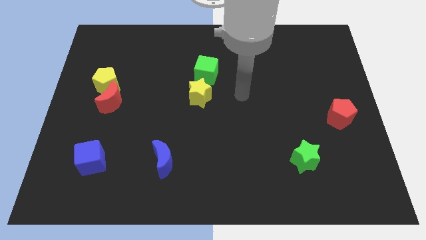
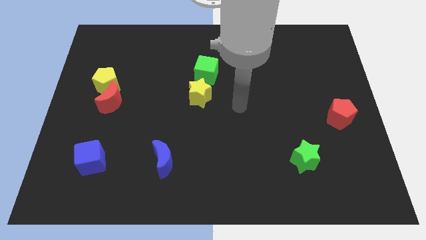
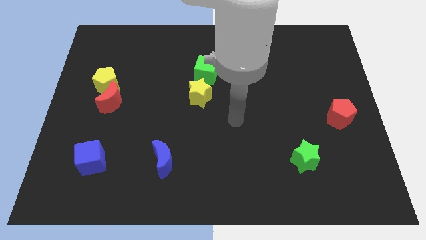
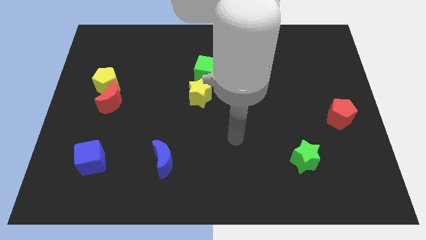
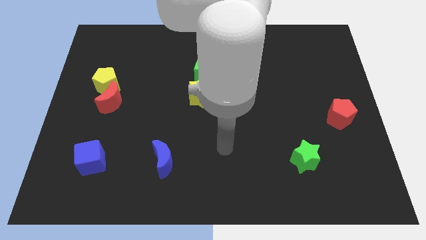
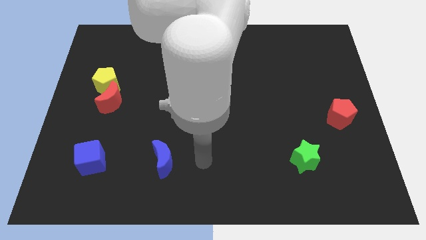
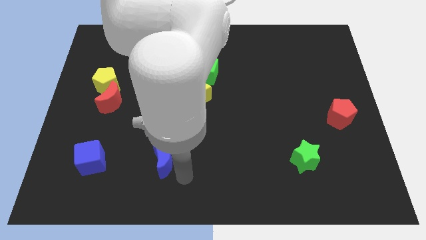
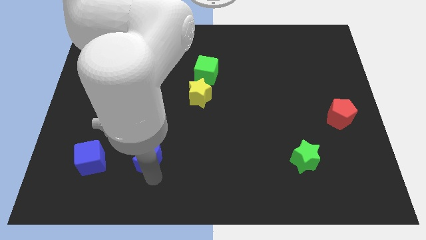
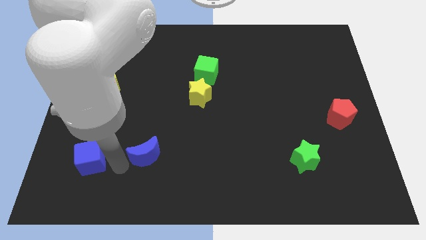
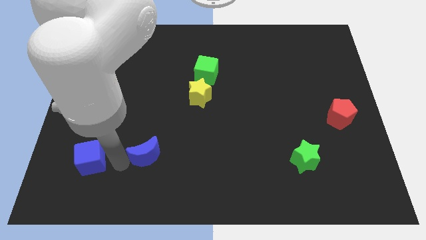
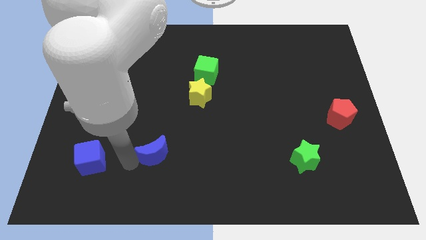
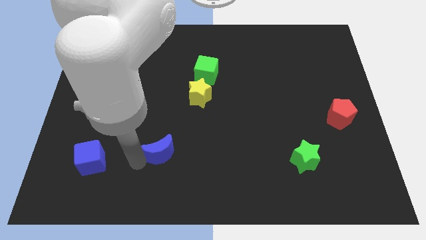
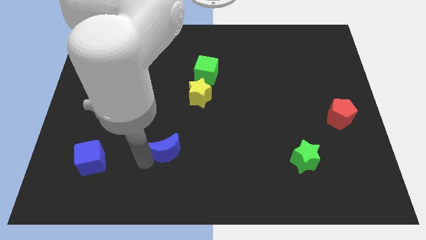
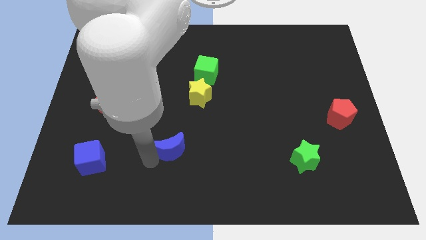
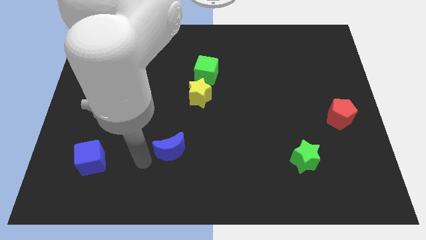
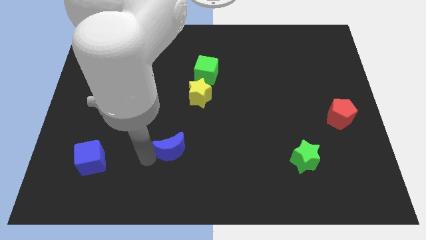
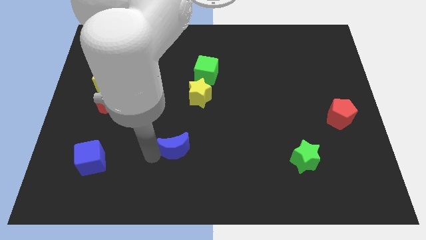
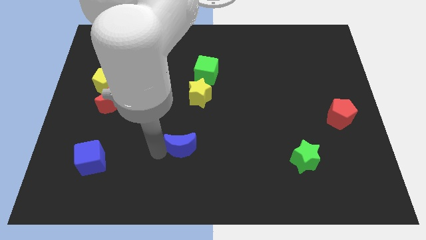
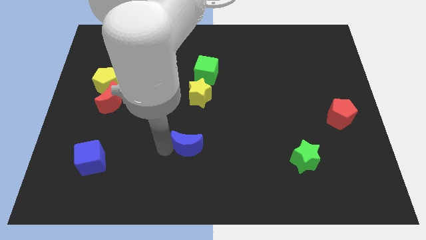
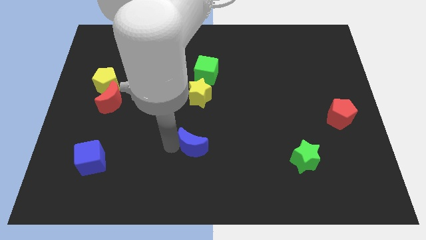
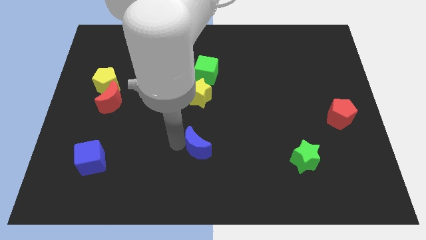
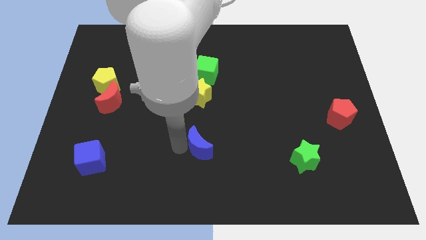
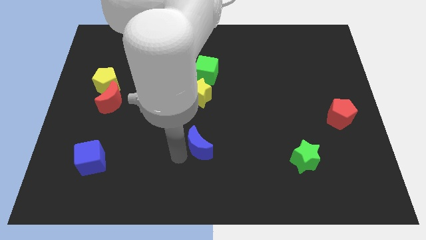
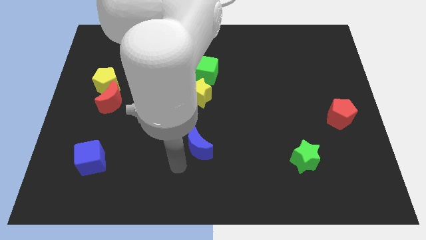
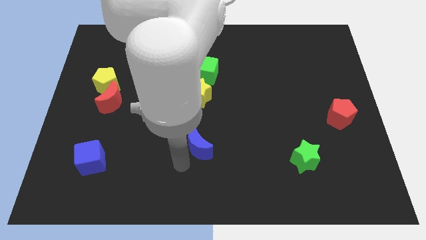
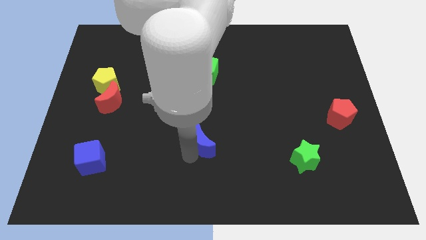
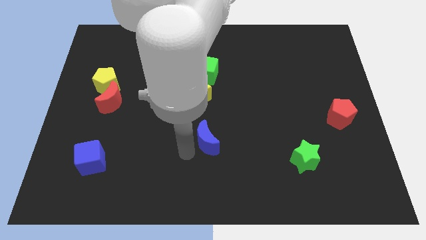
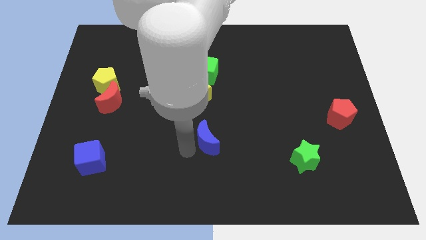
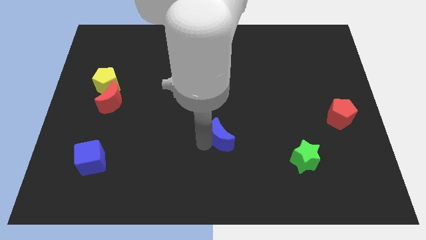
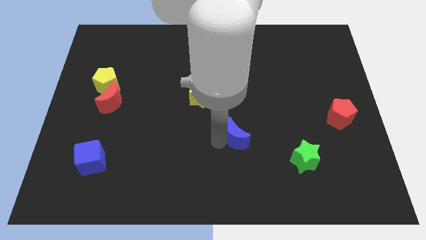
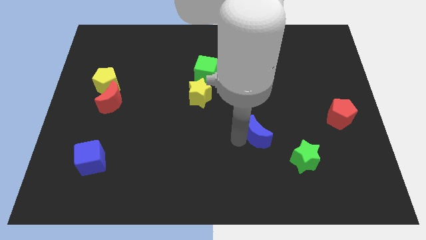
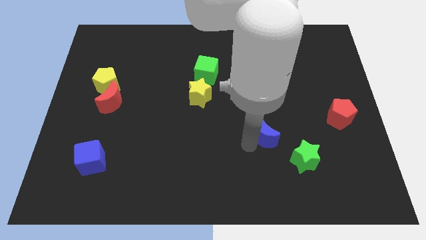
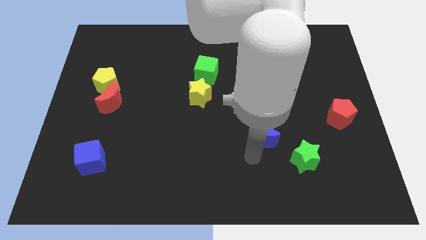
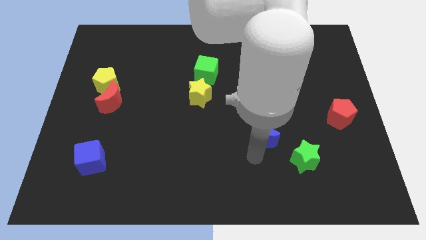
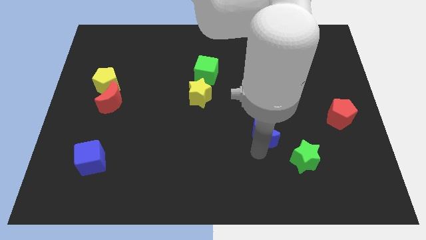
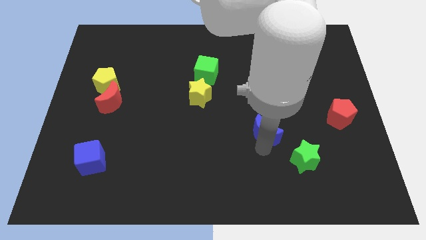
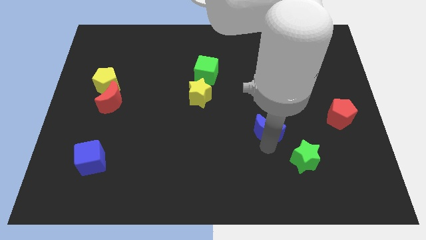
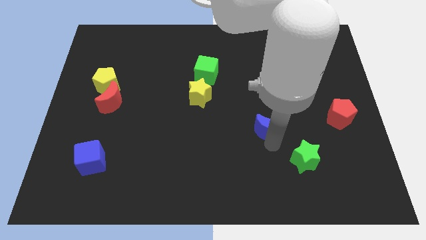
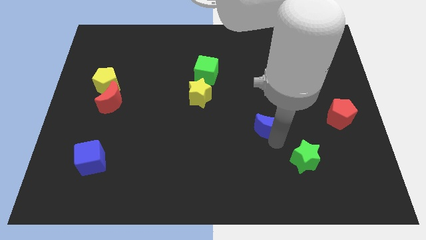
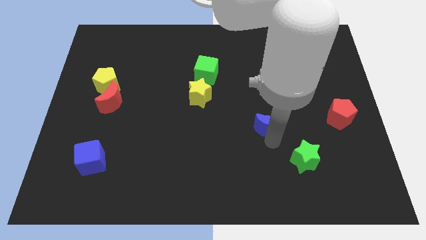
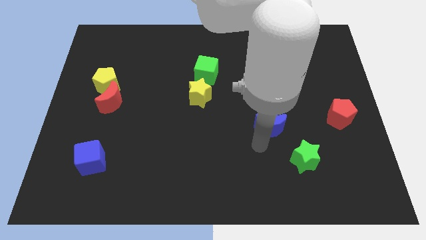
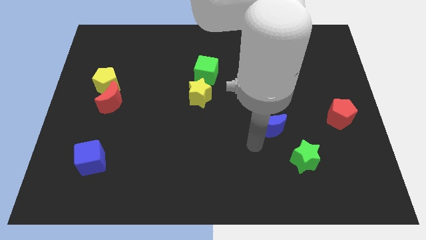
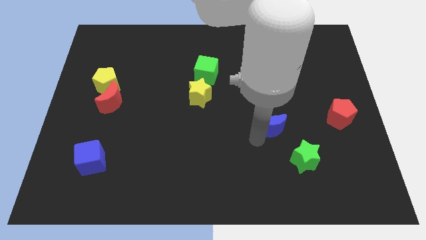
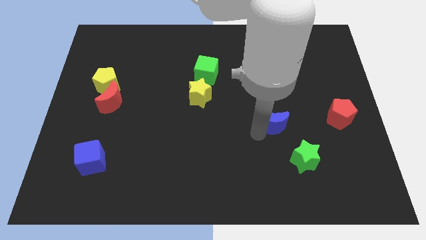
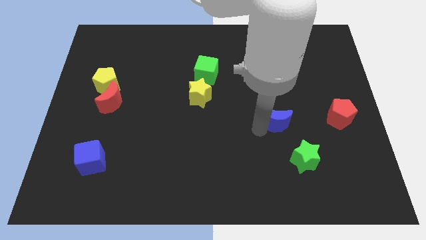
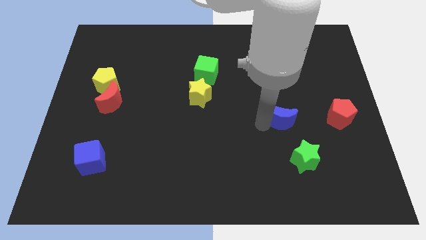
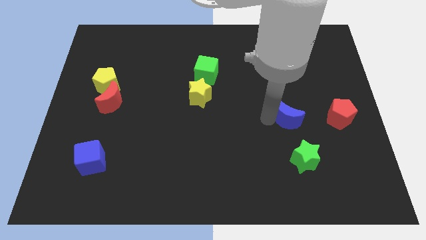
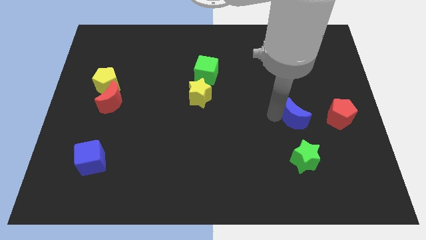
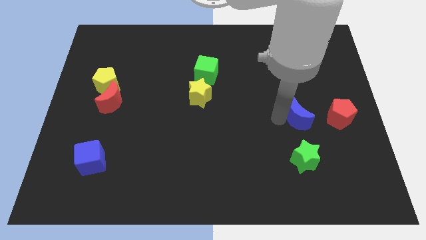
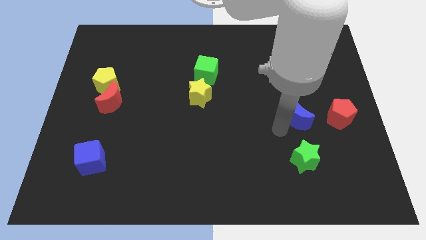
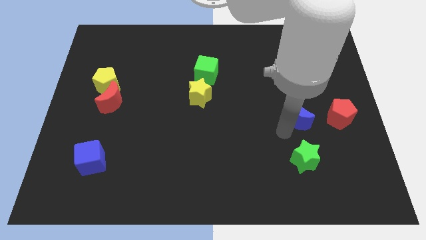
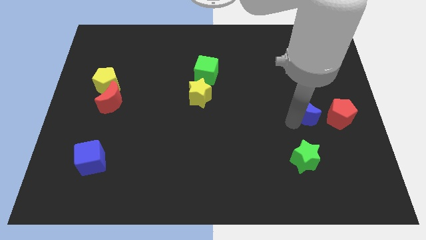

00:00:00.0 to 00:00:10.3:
push the blue moon to the top left of the red pentagon

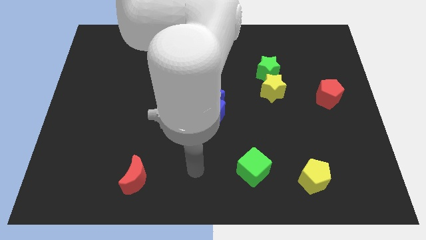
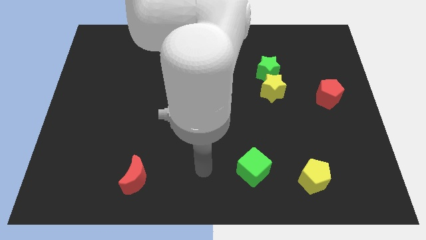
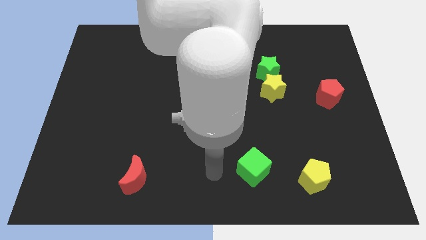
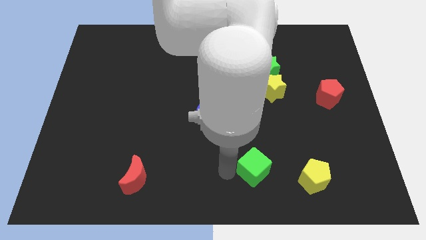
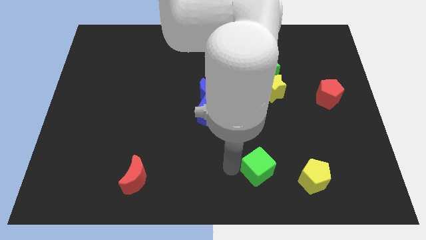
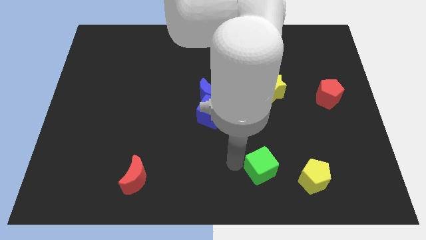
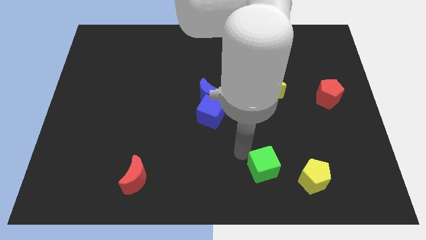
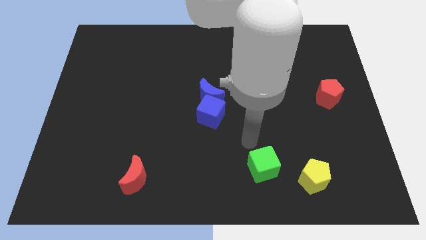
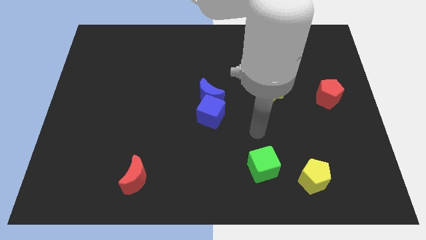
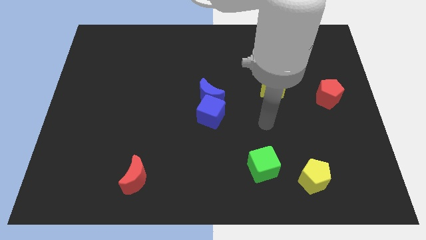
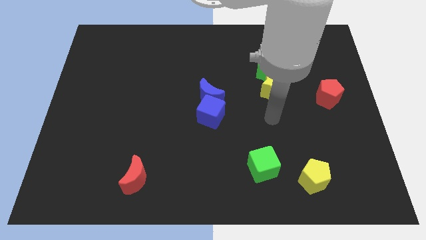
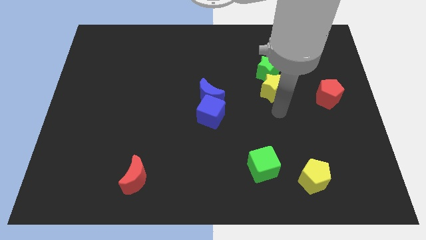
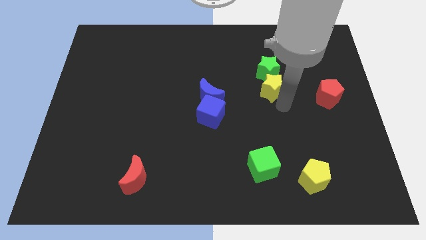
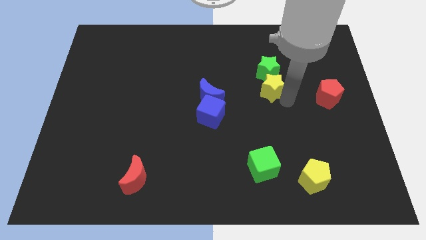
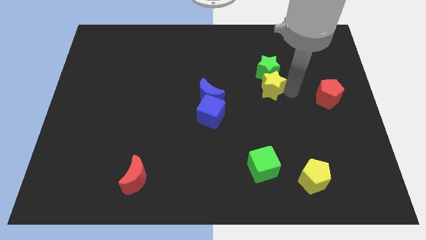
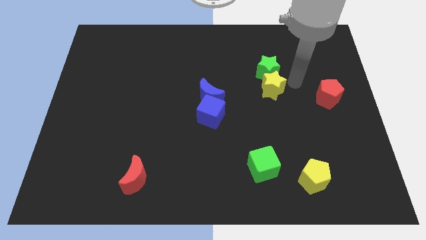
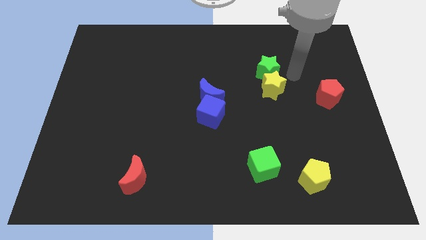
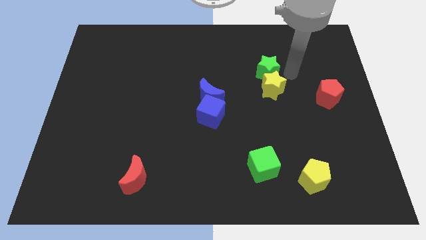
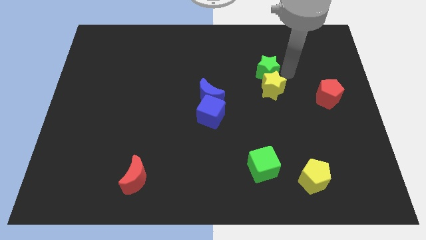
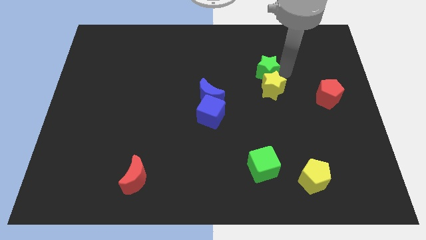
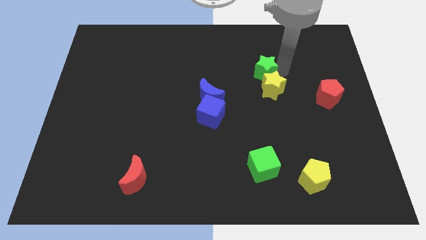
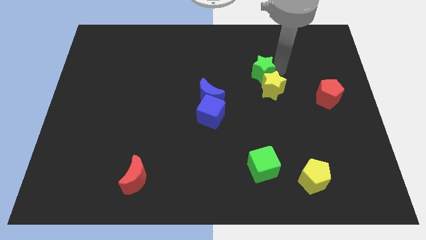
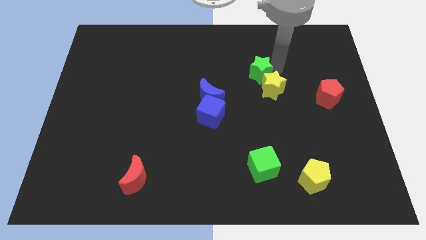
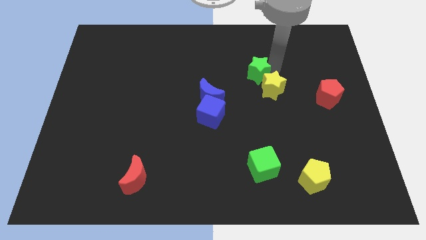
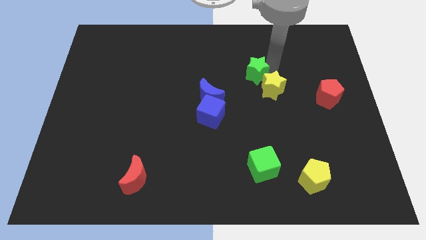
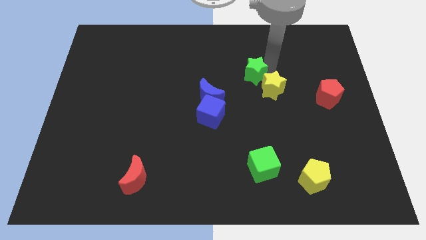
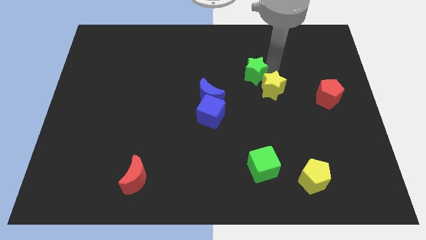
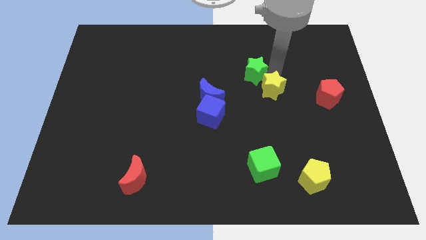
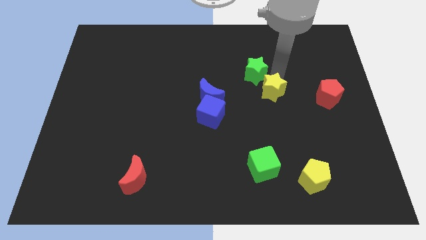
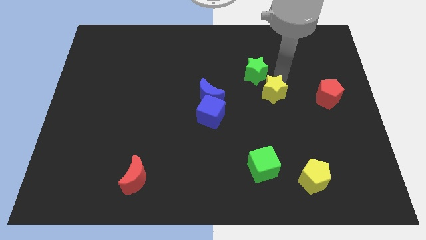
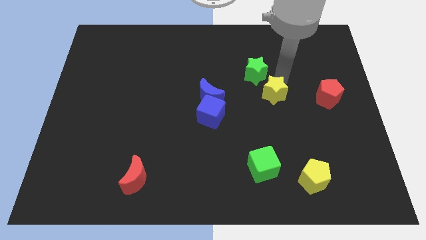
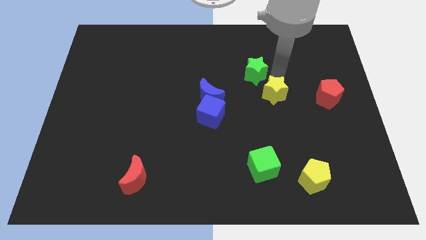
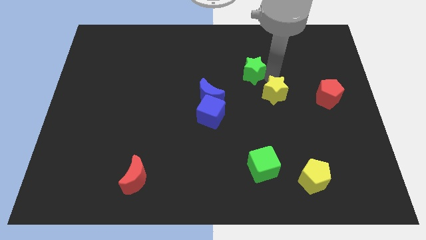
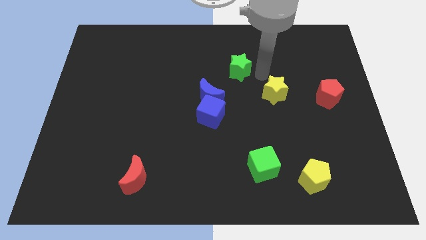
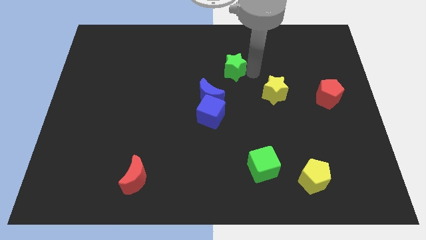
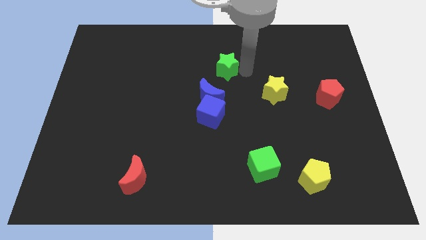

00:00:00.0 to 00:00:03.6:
put the green star above the blue moon
